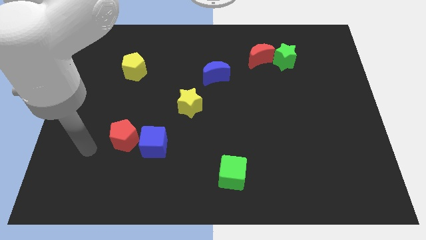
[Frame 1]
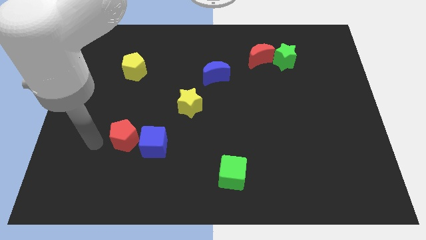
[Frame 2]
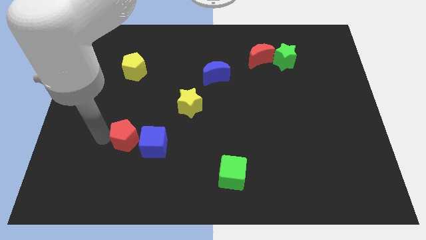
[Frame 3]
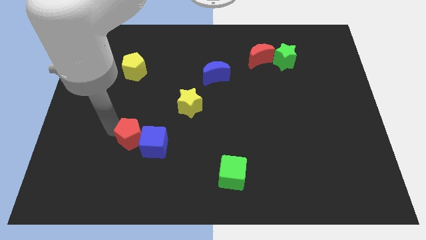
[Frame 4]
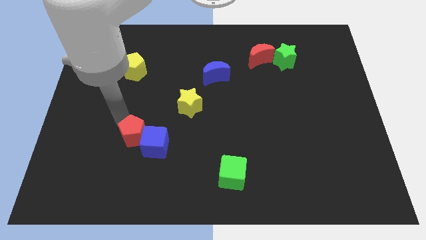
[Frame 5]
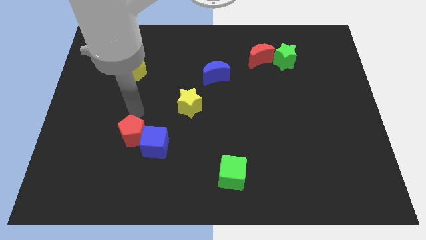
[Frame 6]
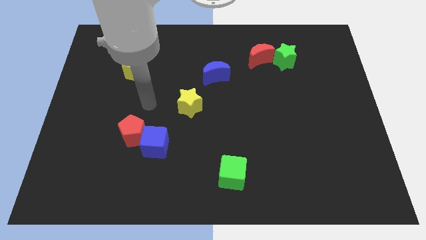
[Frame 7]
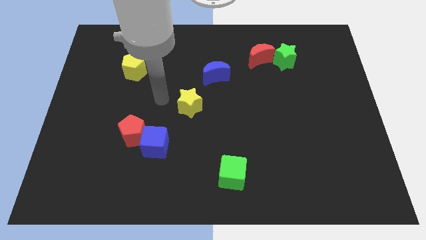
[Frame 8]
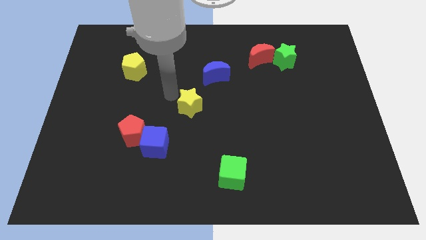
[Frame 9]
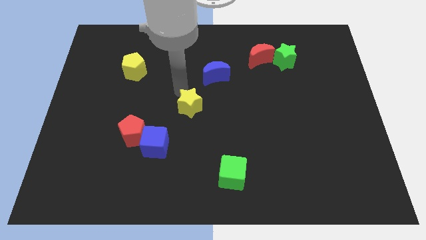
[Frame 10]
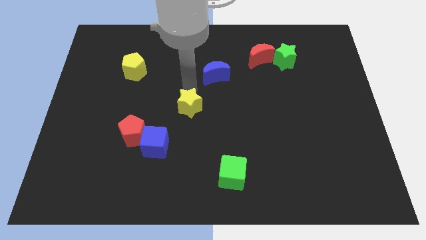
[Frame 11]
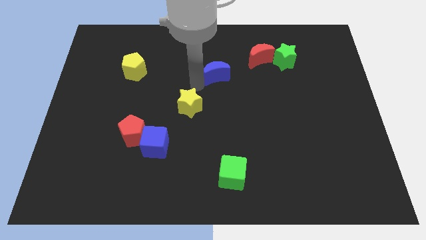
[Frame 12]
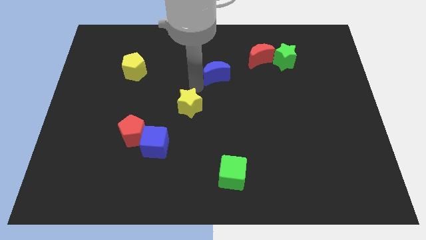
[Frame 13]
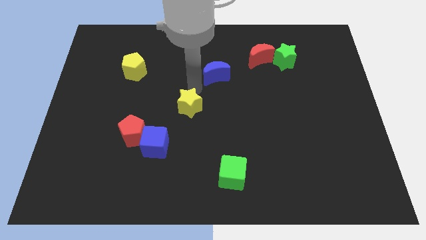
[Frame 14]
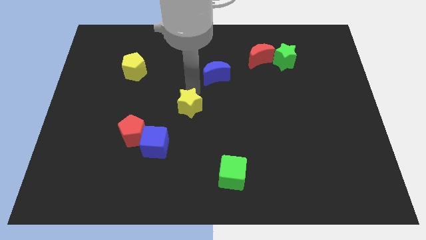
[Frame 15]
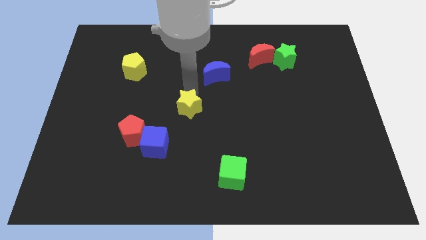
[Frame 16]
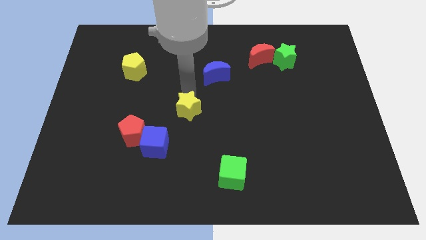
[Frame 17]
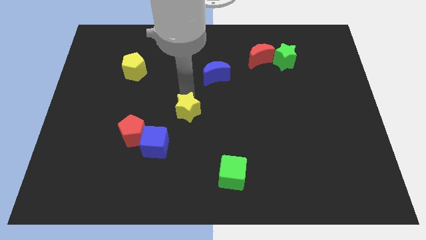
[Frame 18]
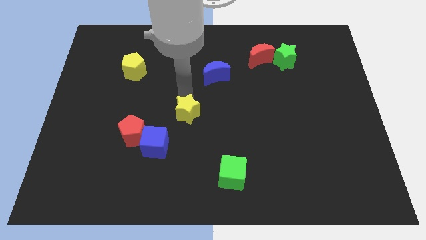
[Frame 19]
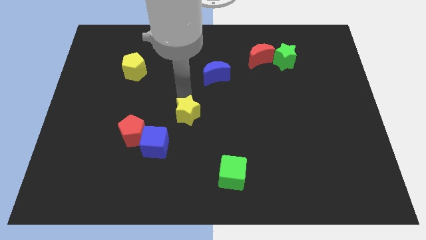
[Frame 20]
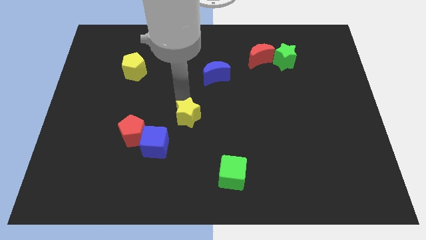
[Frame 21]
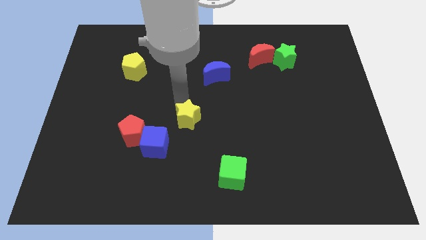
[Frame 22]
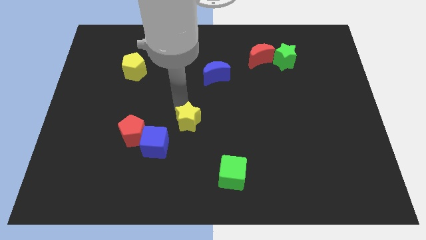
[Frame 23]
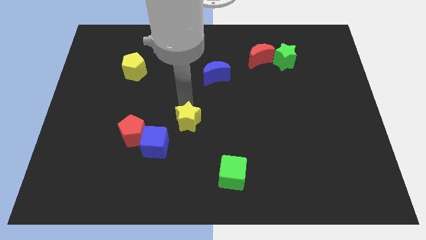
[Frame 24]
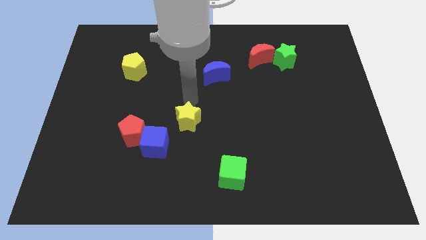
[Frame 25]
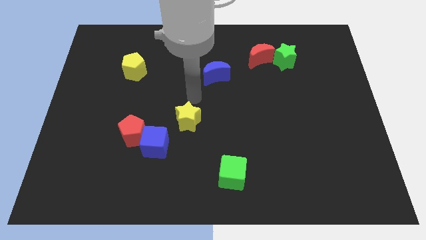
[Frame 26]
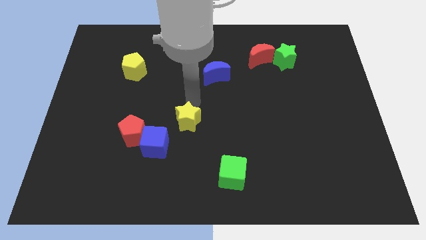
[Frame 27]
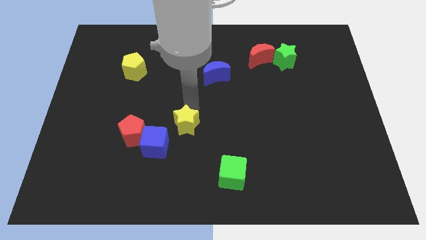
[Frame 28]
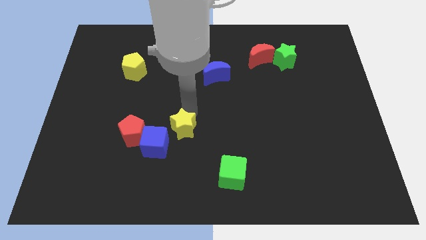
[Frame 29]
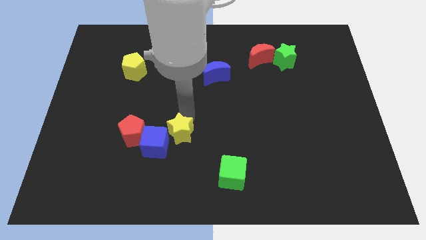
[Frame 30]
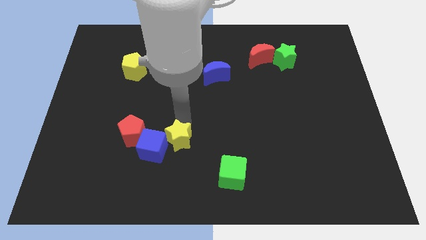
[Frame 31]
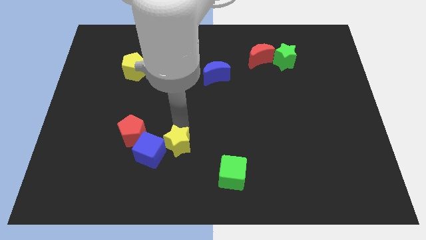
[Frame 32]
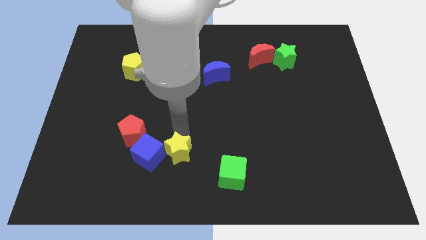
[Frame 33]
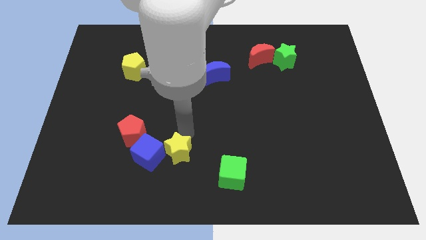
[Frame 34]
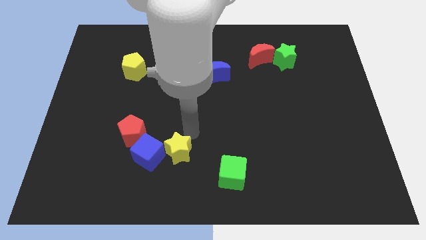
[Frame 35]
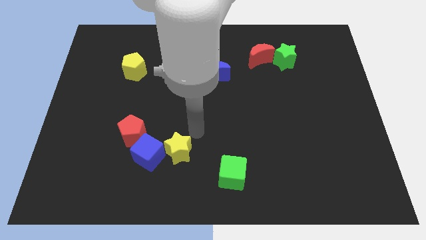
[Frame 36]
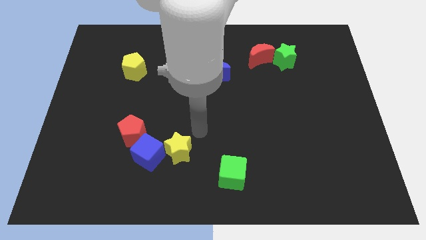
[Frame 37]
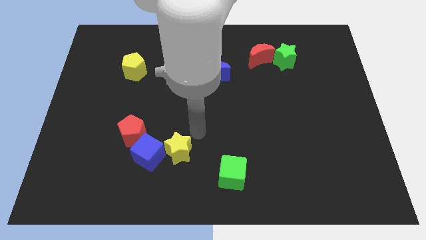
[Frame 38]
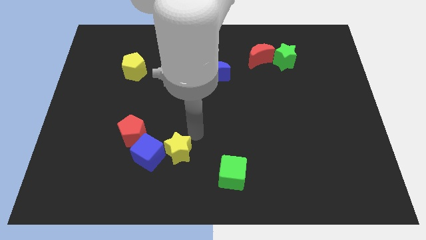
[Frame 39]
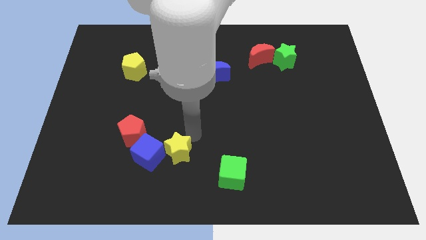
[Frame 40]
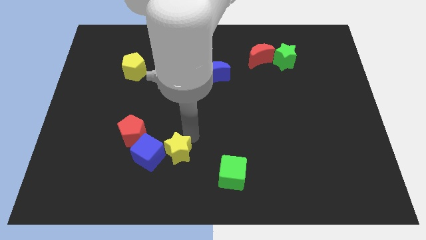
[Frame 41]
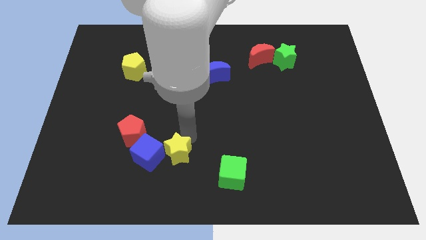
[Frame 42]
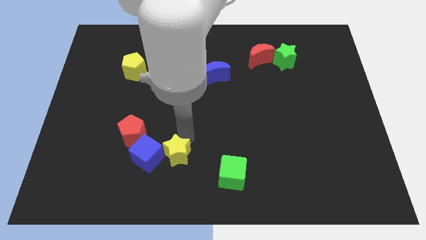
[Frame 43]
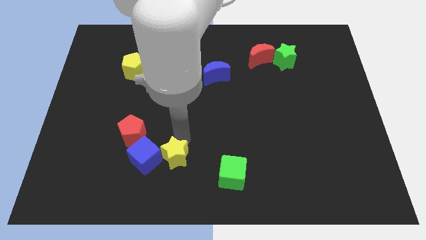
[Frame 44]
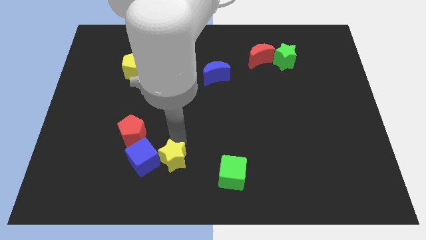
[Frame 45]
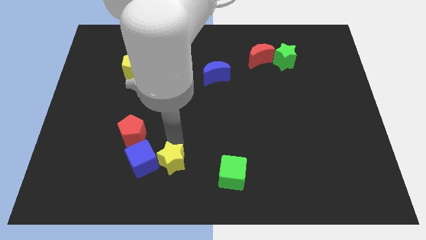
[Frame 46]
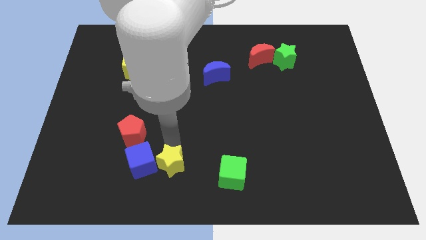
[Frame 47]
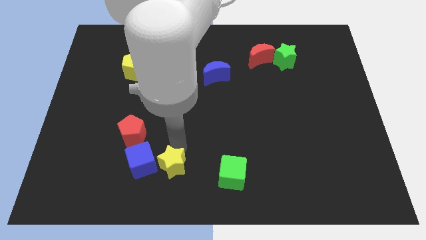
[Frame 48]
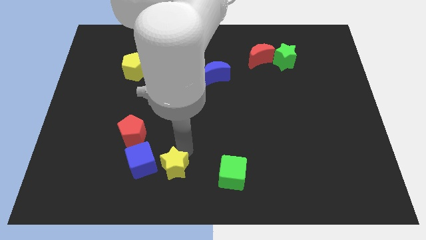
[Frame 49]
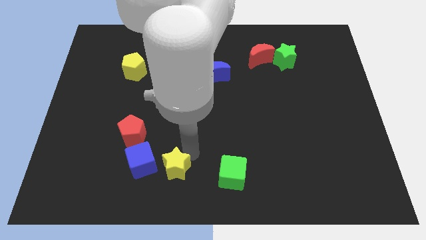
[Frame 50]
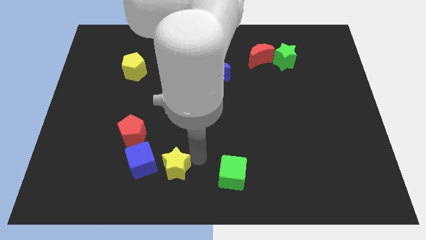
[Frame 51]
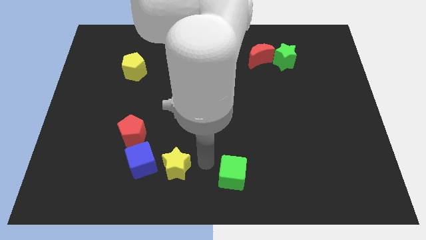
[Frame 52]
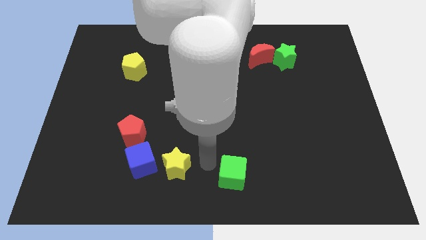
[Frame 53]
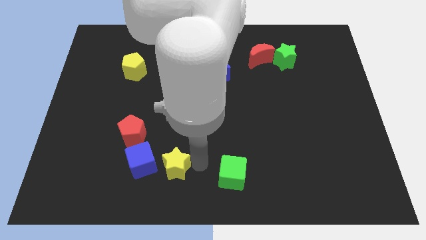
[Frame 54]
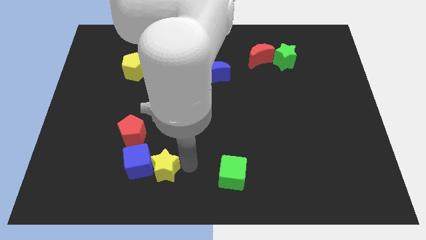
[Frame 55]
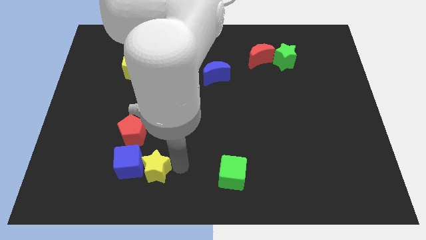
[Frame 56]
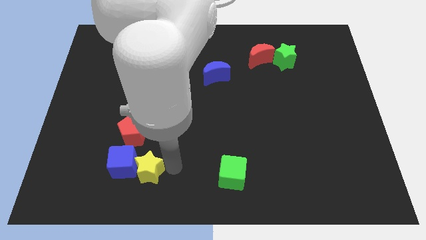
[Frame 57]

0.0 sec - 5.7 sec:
move the yellow star to the bottom of the red pentagon

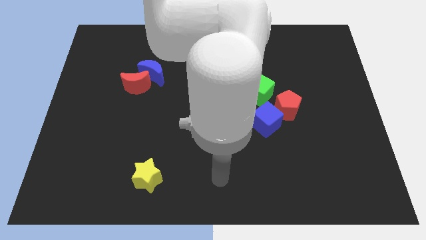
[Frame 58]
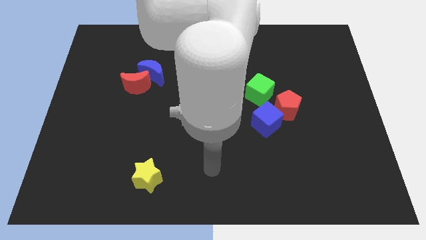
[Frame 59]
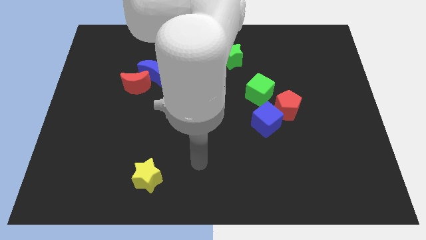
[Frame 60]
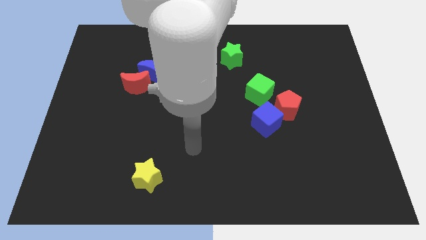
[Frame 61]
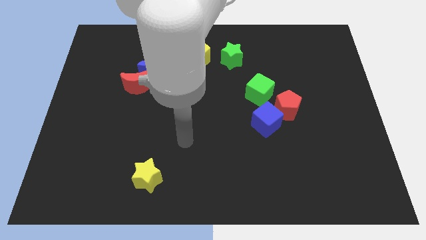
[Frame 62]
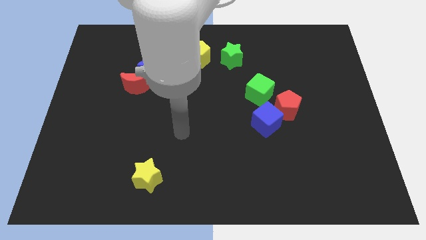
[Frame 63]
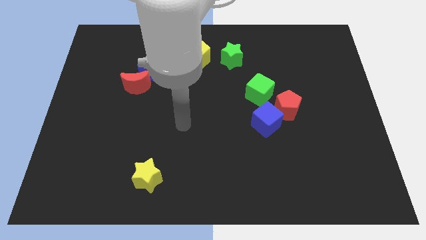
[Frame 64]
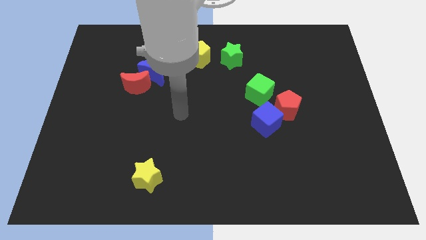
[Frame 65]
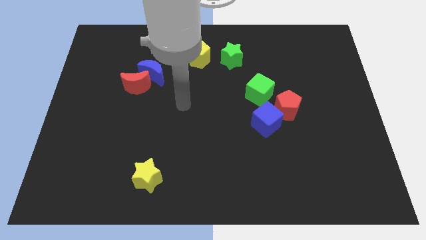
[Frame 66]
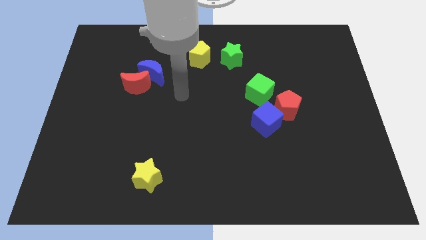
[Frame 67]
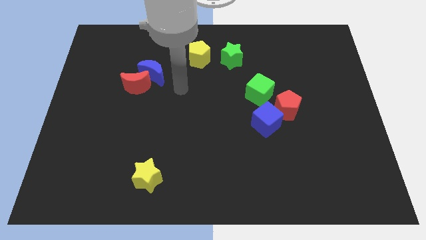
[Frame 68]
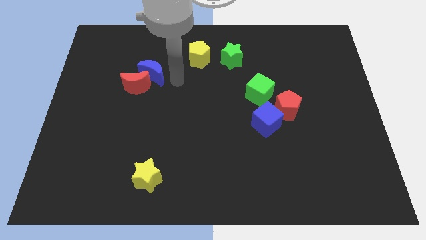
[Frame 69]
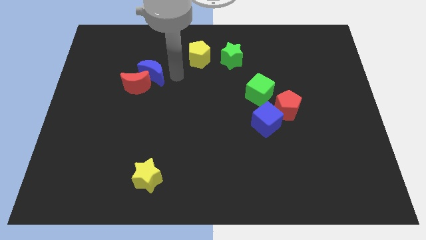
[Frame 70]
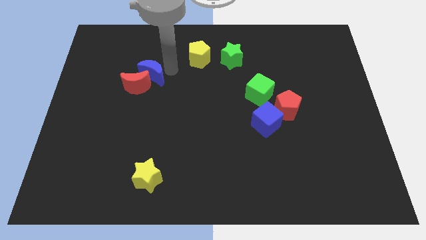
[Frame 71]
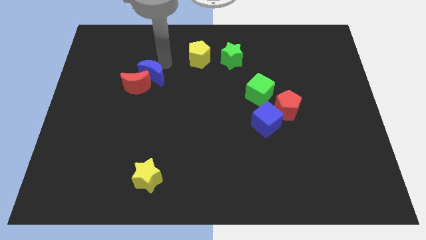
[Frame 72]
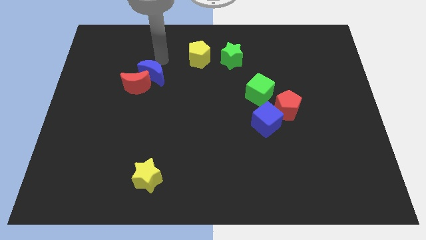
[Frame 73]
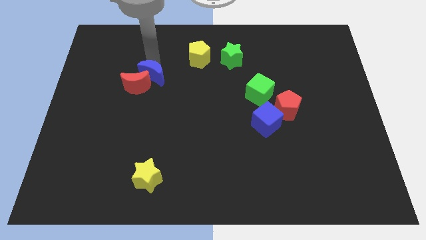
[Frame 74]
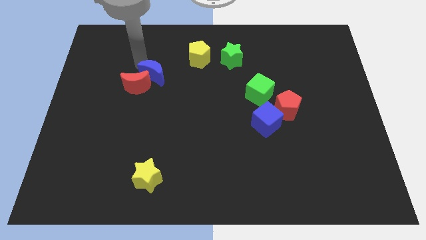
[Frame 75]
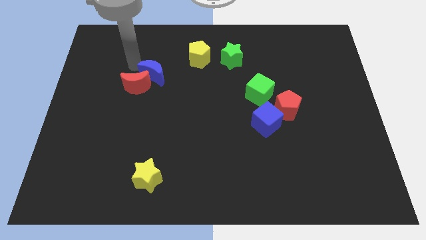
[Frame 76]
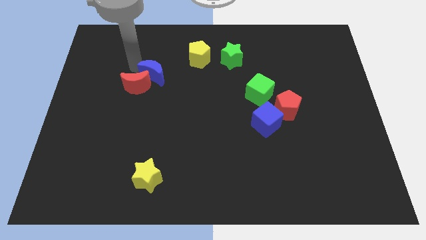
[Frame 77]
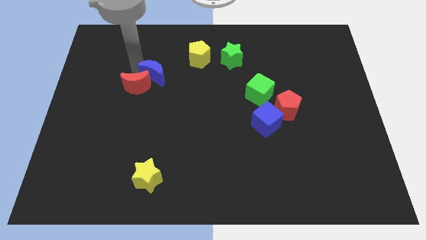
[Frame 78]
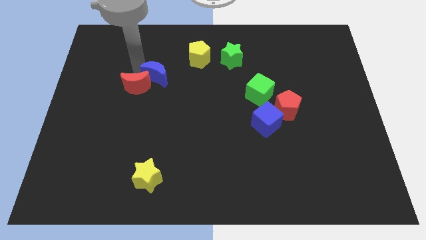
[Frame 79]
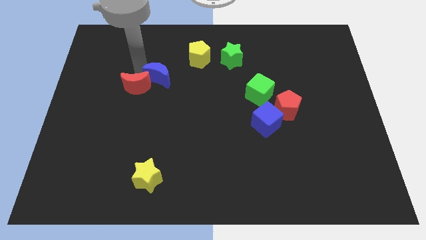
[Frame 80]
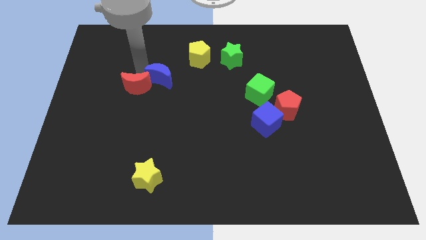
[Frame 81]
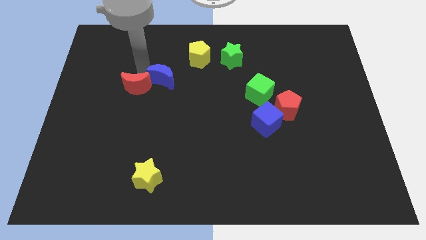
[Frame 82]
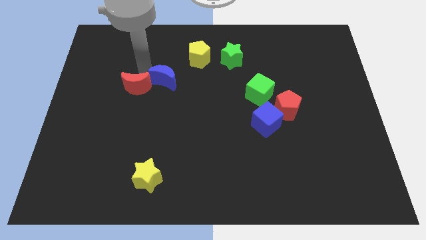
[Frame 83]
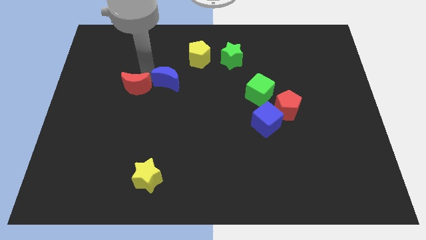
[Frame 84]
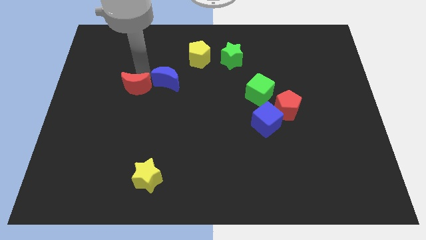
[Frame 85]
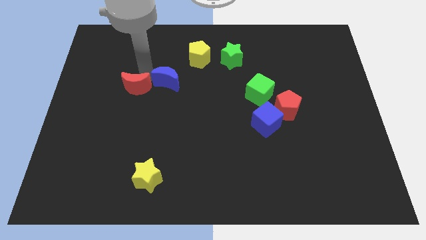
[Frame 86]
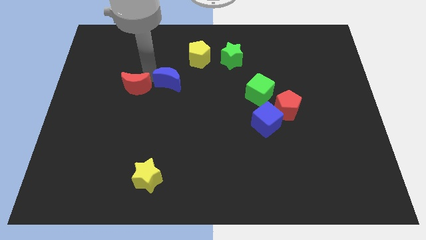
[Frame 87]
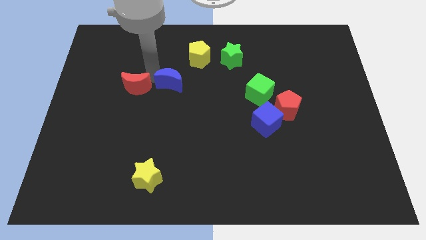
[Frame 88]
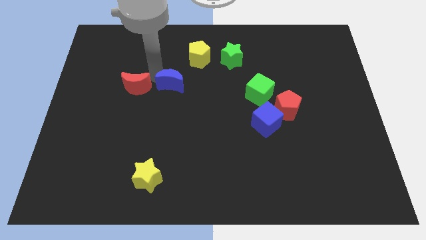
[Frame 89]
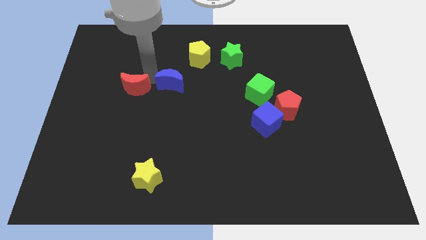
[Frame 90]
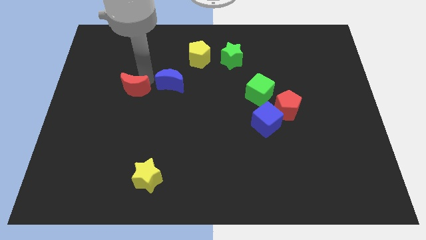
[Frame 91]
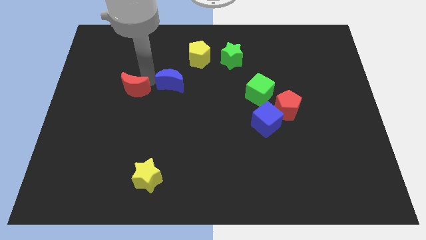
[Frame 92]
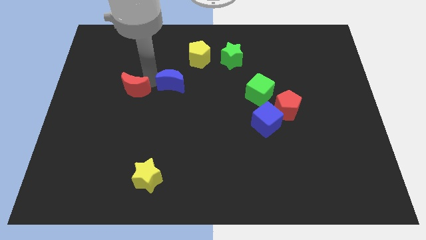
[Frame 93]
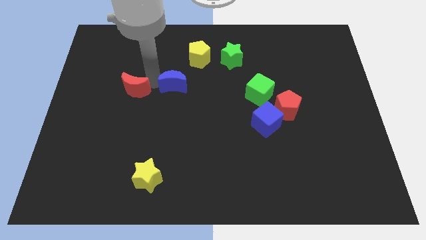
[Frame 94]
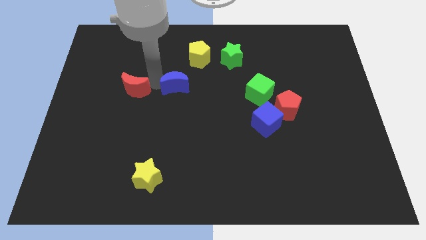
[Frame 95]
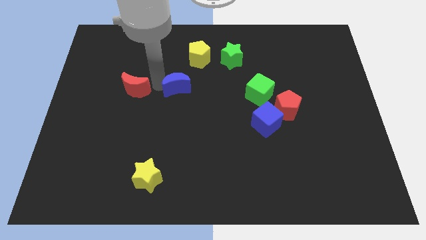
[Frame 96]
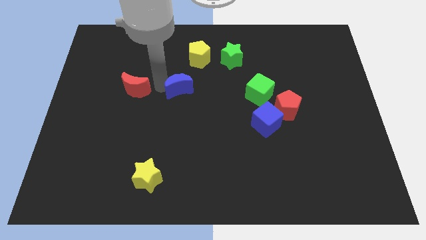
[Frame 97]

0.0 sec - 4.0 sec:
push the blue moon to the bottom side of the yellow pentagon
